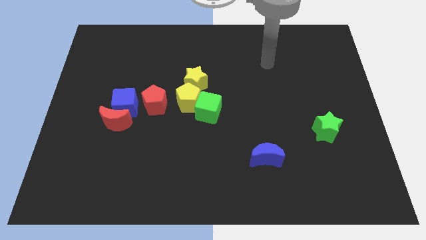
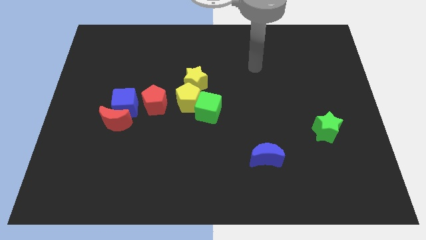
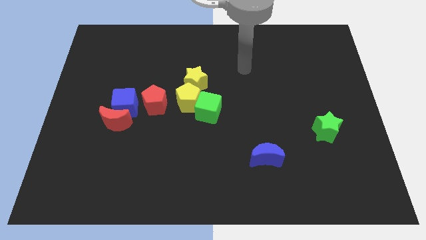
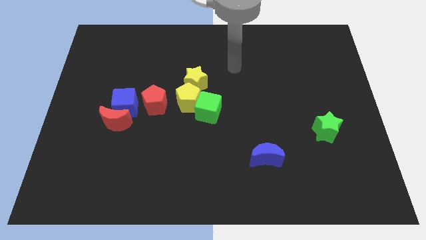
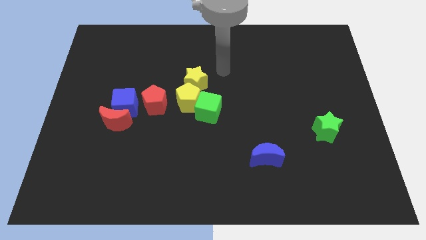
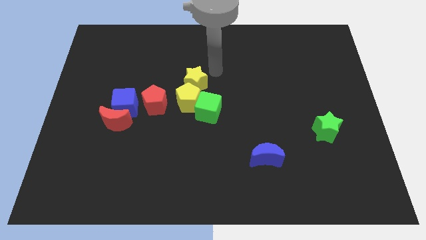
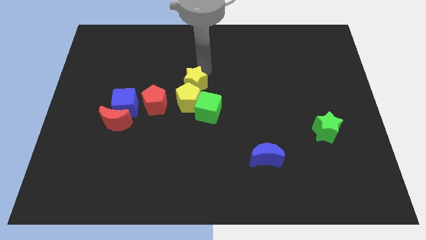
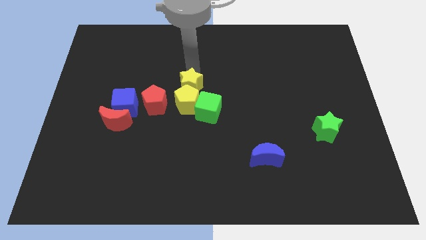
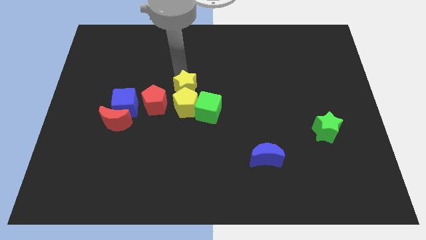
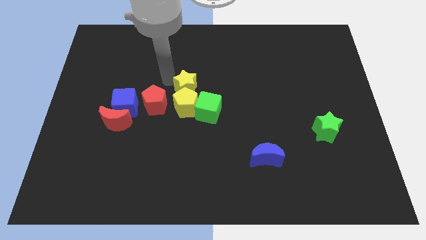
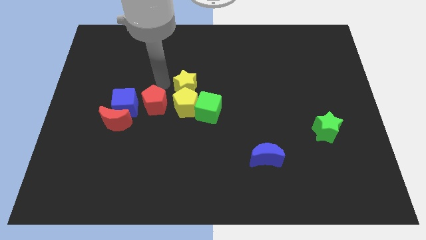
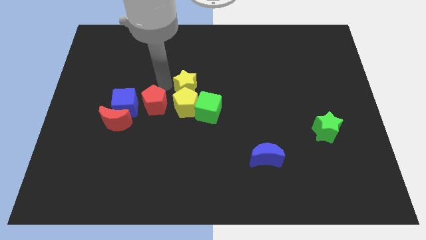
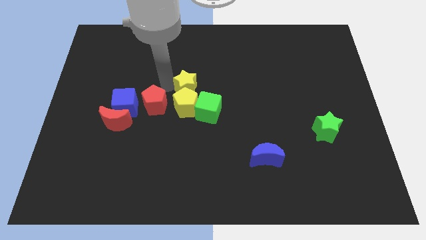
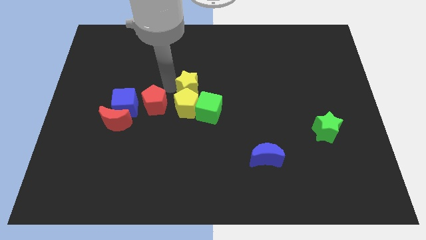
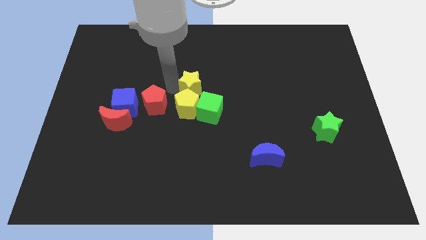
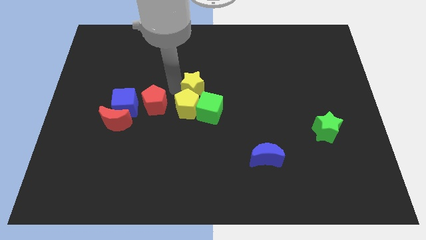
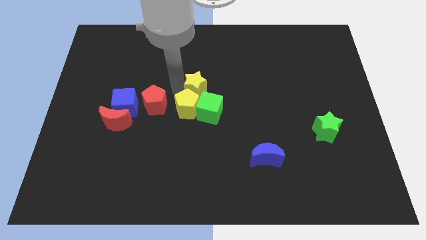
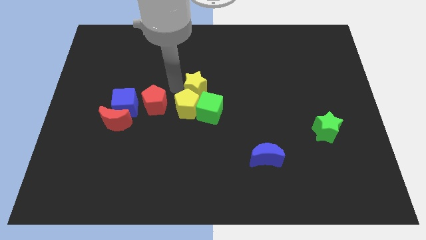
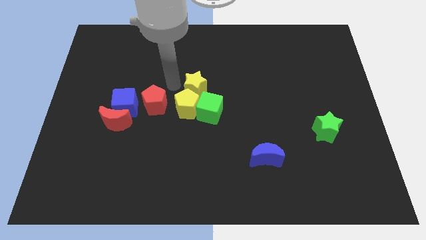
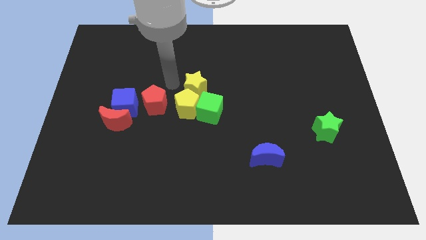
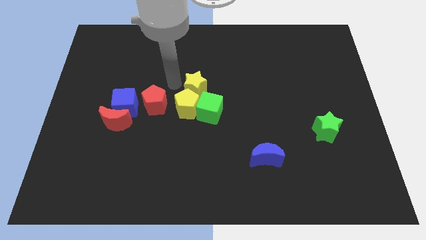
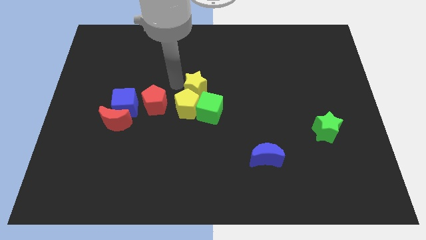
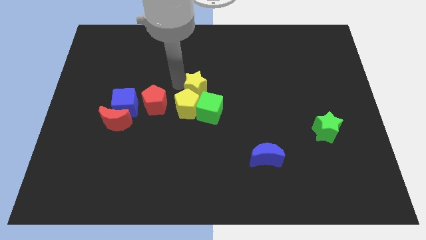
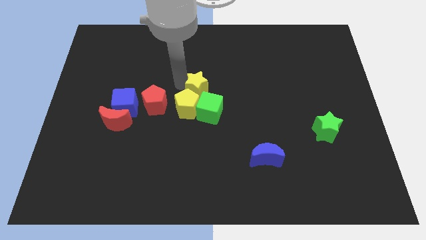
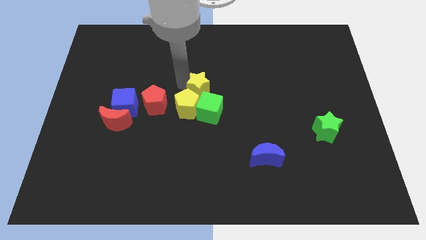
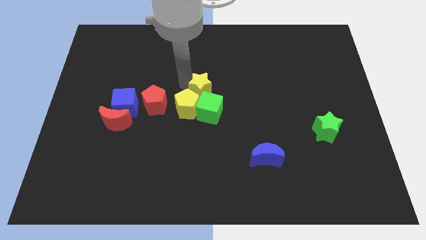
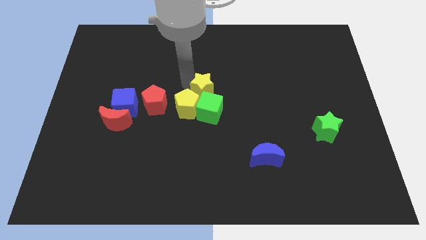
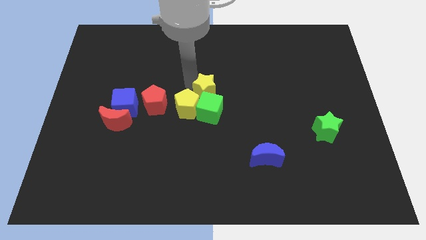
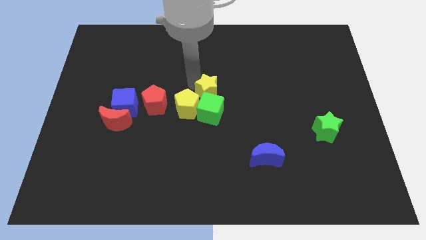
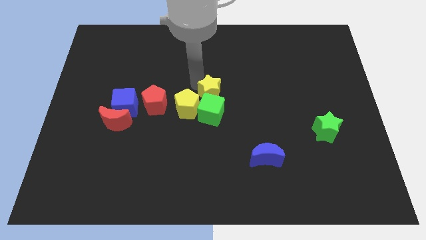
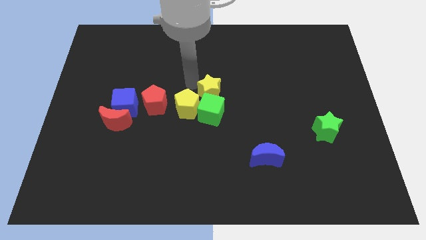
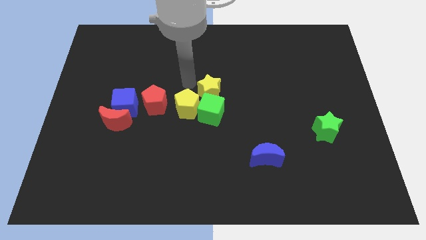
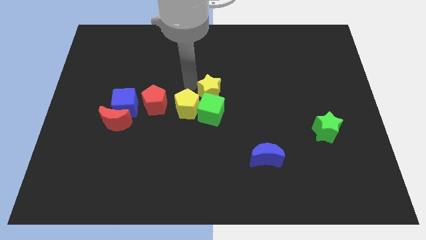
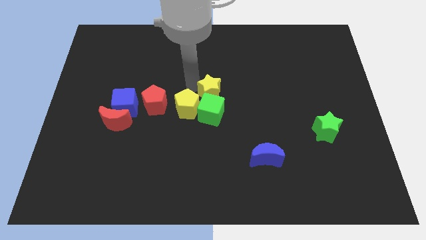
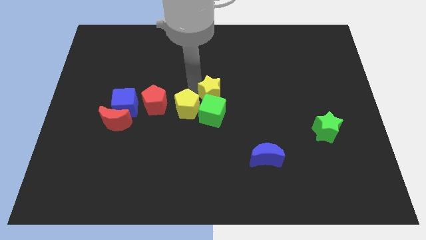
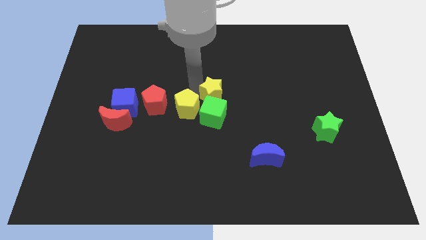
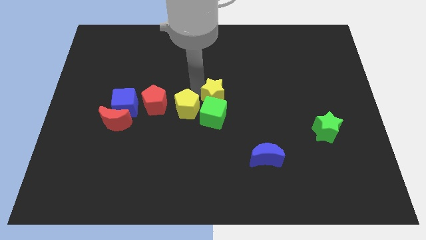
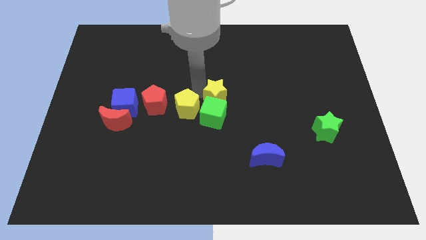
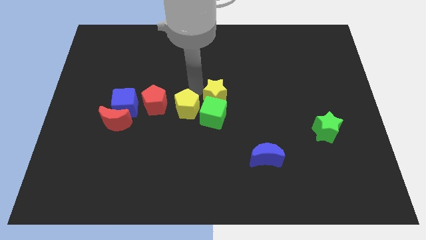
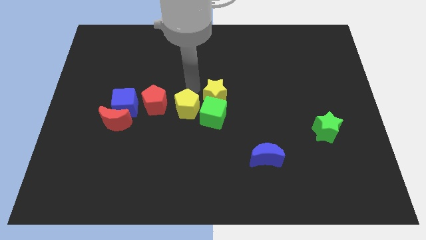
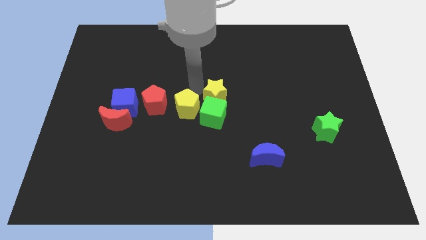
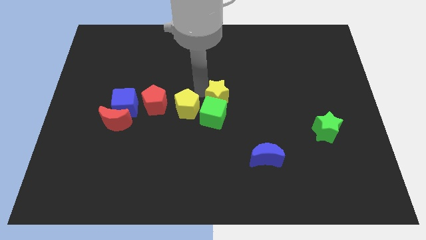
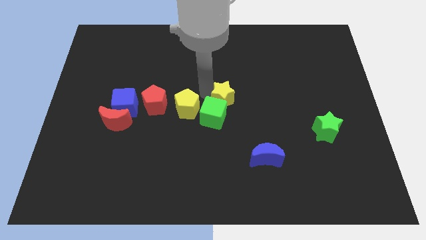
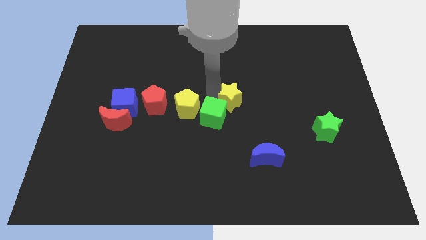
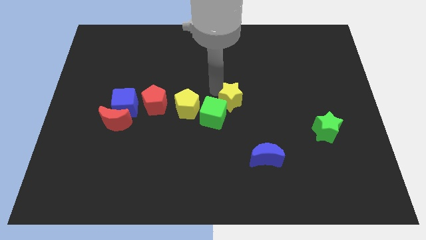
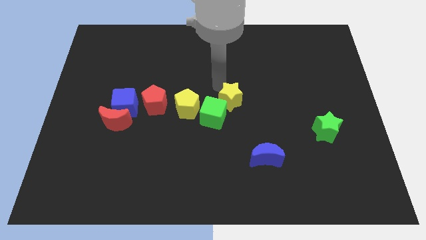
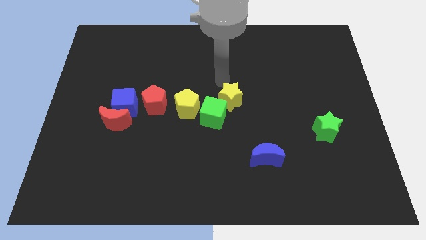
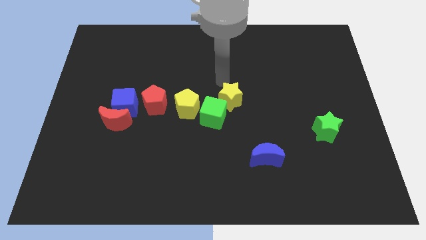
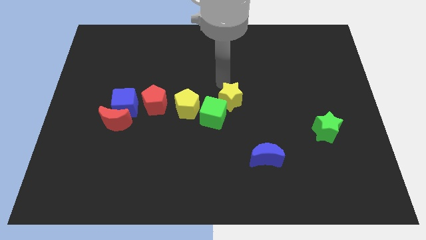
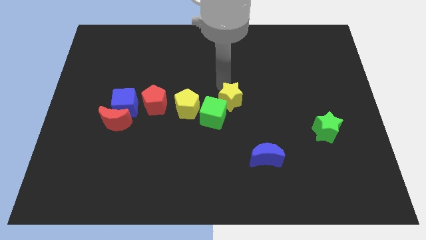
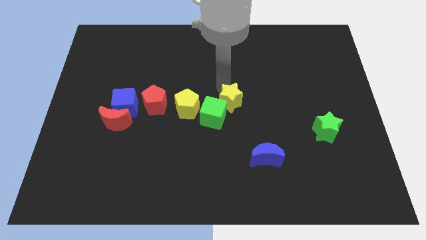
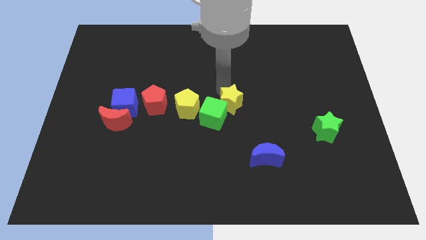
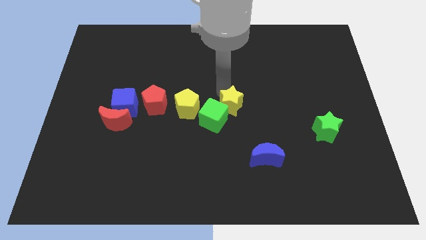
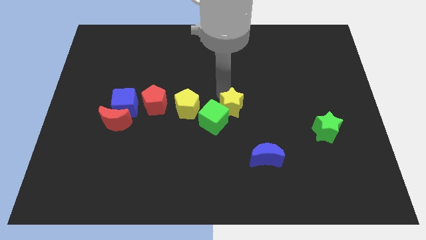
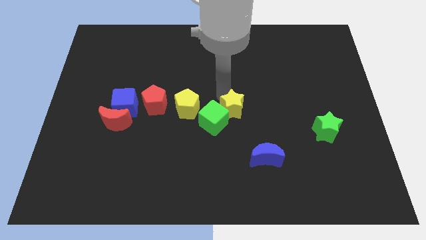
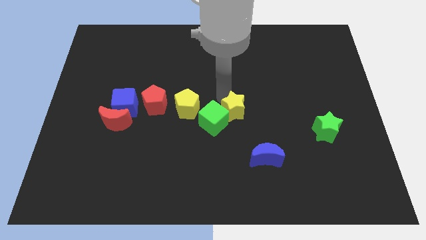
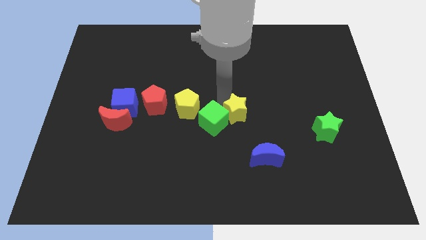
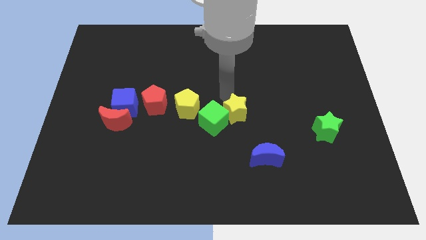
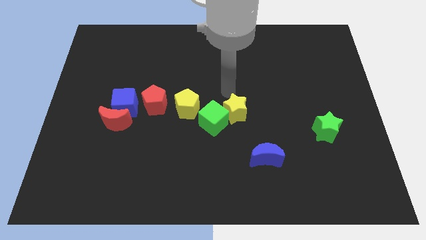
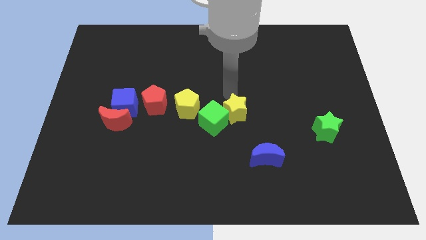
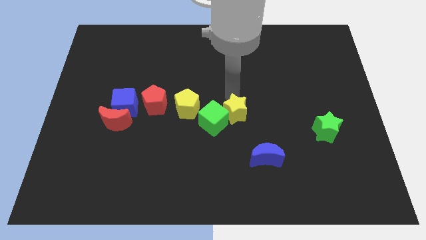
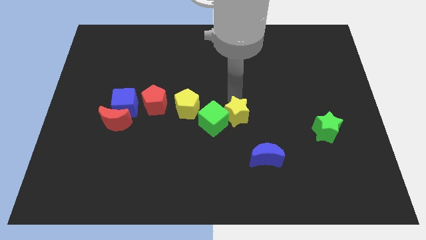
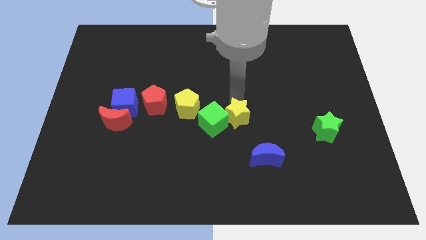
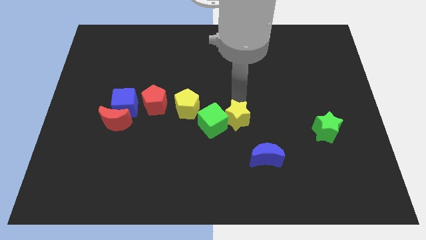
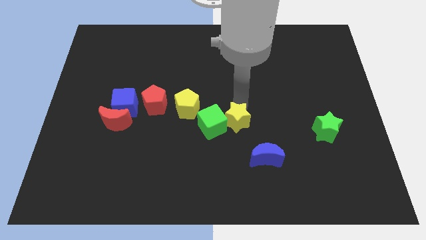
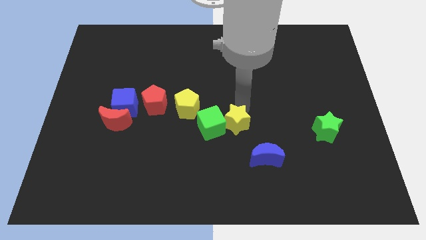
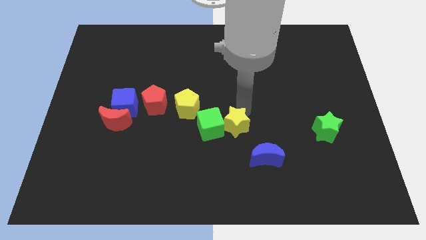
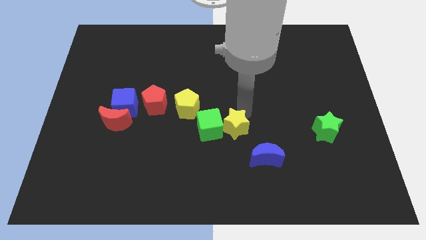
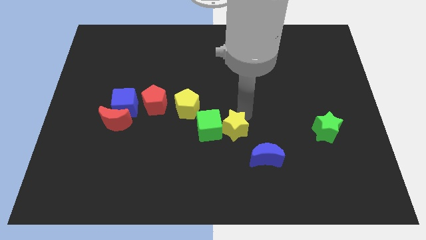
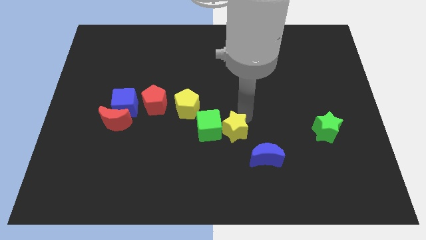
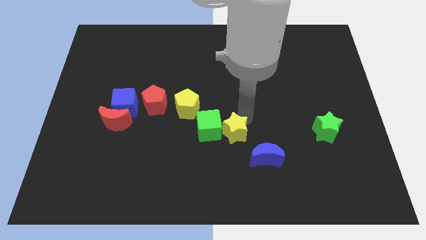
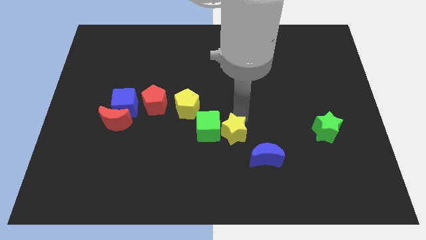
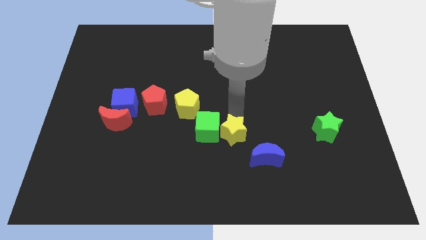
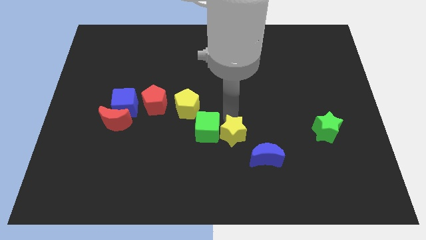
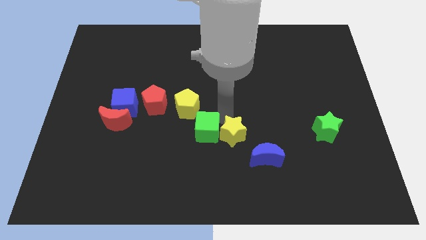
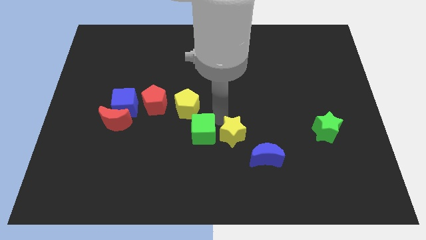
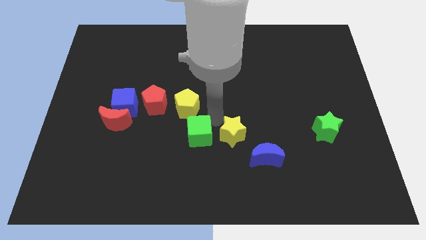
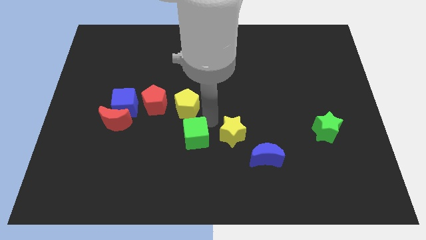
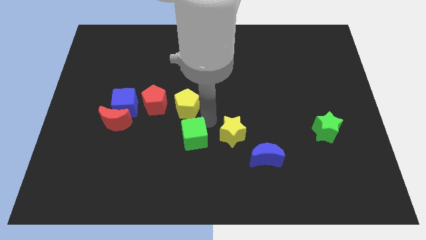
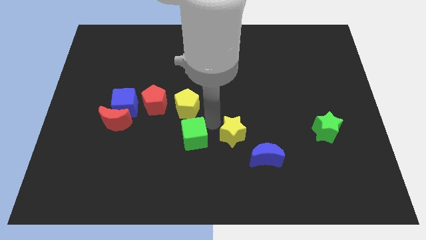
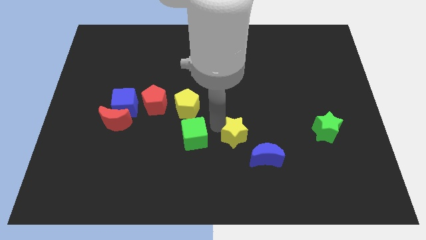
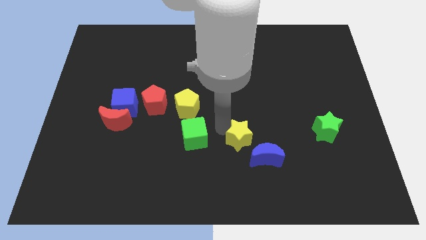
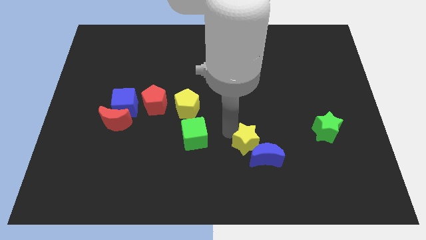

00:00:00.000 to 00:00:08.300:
put the yellow star towards the blue moon
